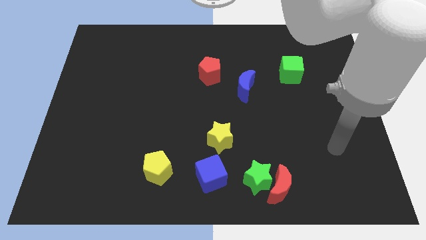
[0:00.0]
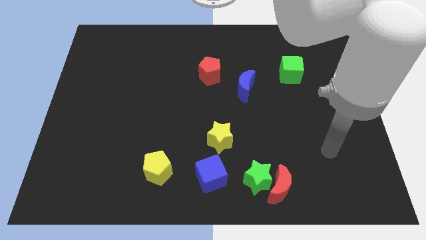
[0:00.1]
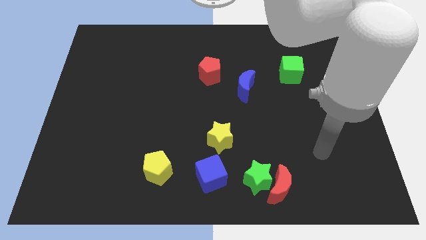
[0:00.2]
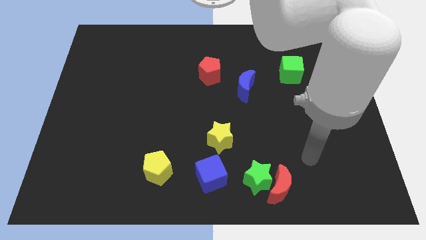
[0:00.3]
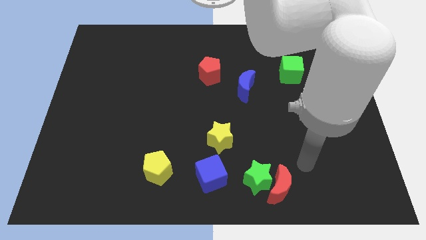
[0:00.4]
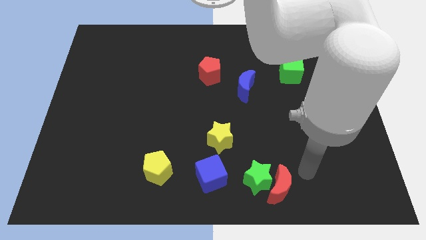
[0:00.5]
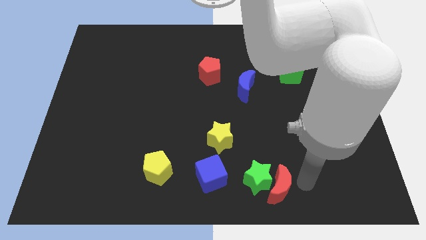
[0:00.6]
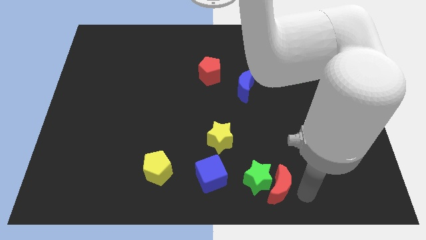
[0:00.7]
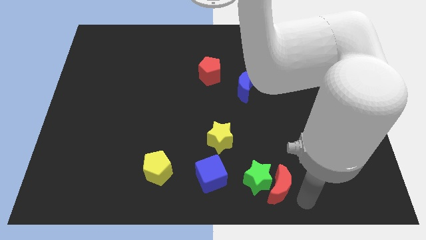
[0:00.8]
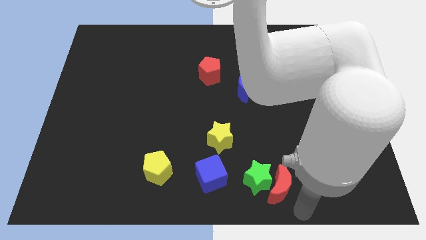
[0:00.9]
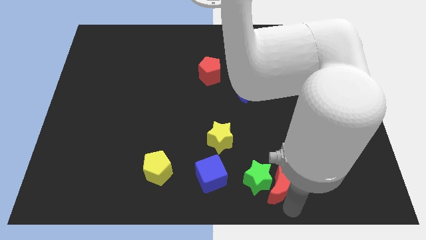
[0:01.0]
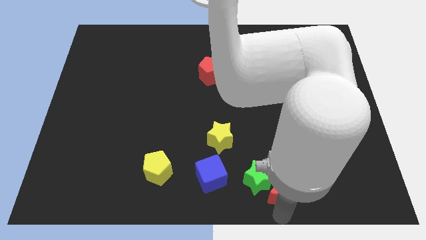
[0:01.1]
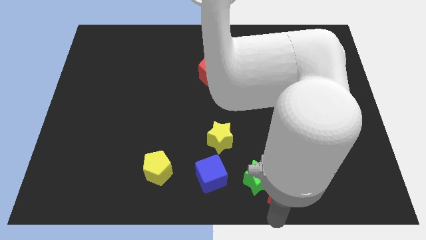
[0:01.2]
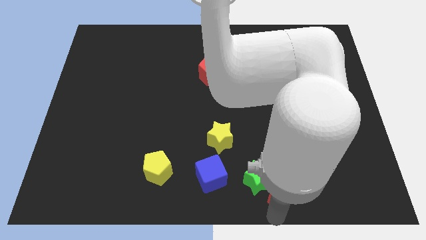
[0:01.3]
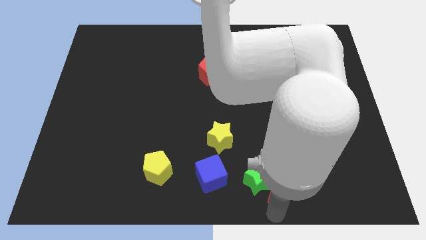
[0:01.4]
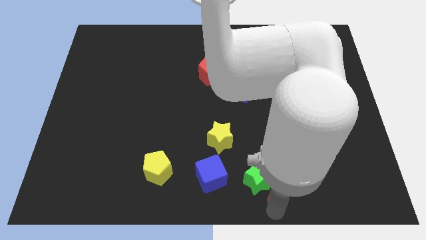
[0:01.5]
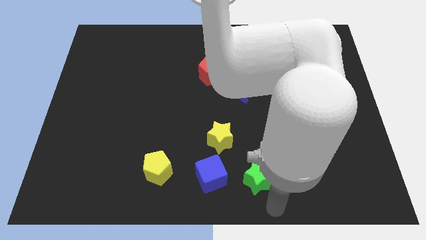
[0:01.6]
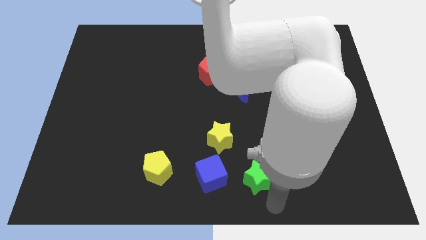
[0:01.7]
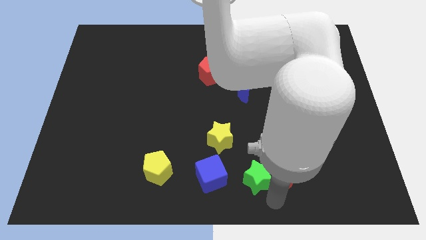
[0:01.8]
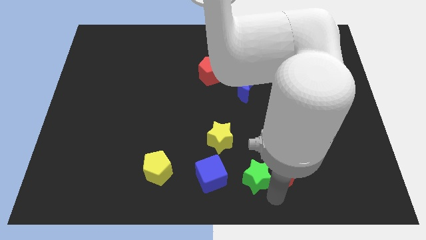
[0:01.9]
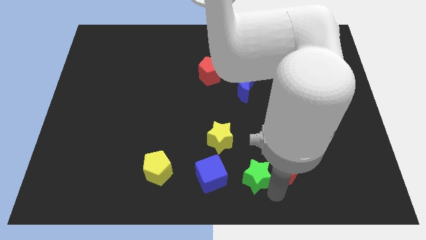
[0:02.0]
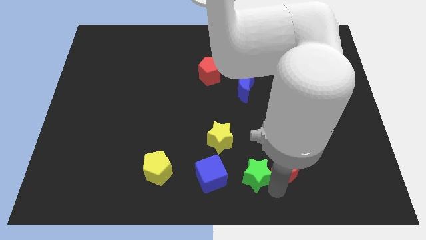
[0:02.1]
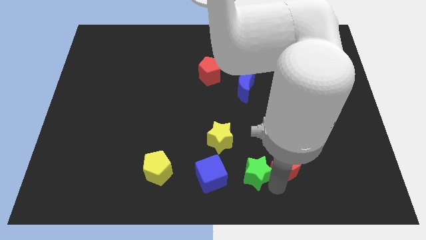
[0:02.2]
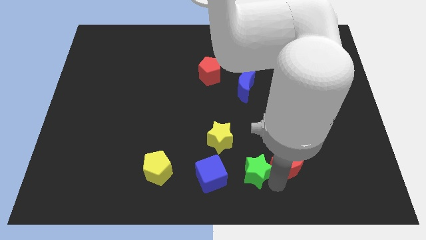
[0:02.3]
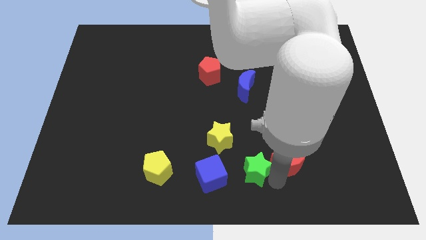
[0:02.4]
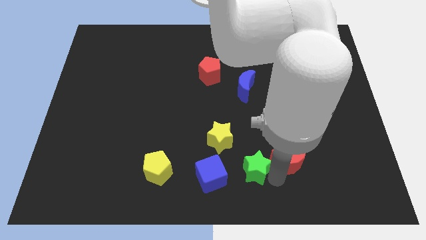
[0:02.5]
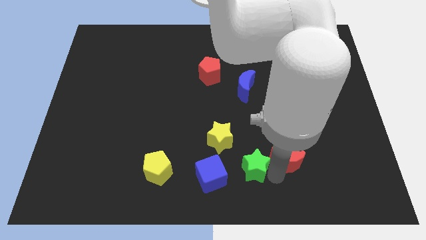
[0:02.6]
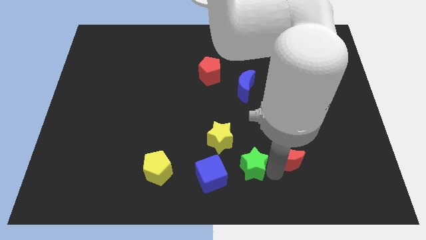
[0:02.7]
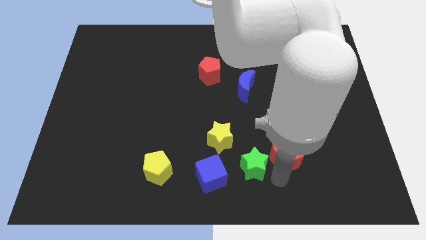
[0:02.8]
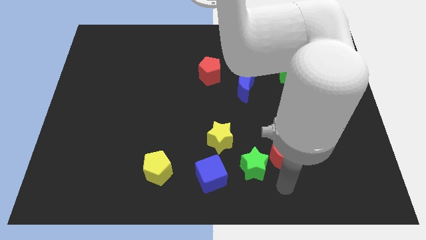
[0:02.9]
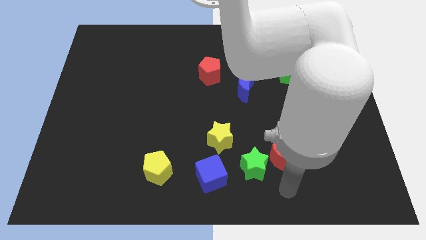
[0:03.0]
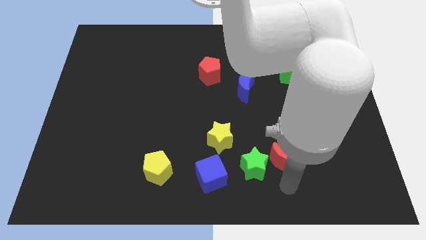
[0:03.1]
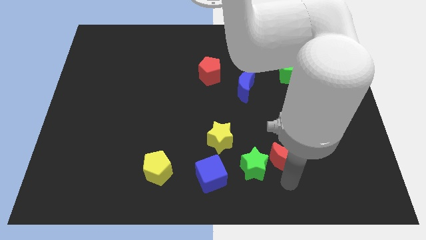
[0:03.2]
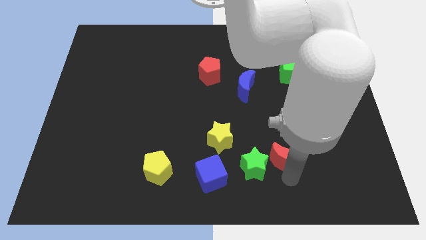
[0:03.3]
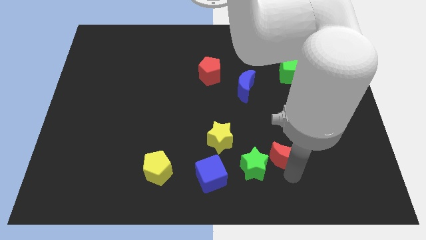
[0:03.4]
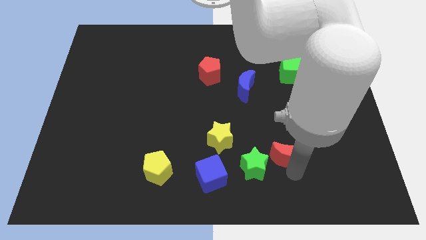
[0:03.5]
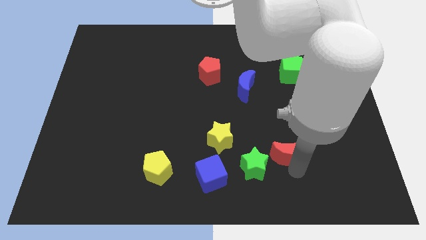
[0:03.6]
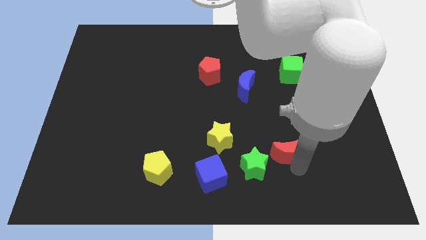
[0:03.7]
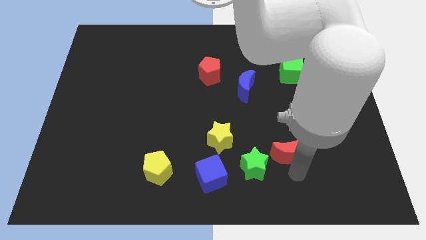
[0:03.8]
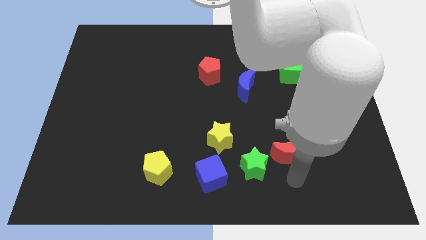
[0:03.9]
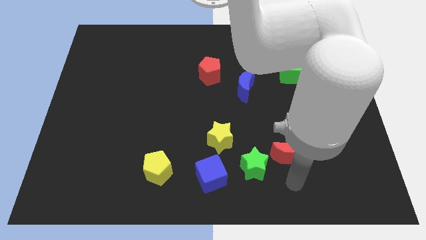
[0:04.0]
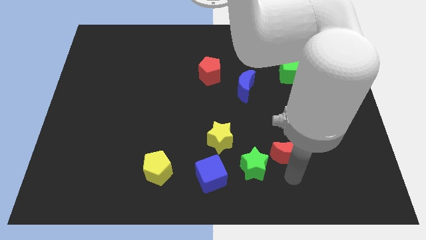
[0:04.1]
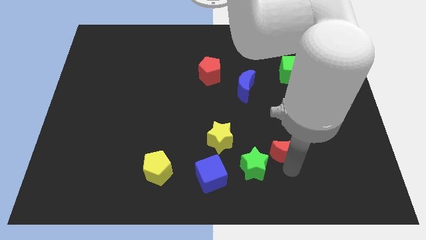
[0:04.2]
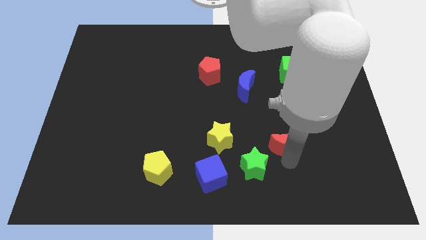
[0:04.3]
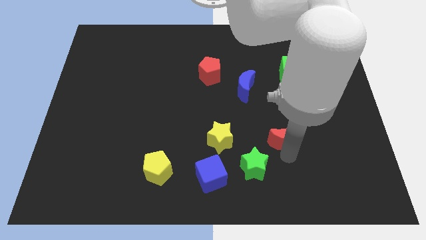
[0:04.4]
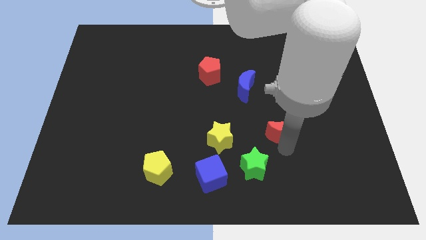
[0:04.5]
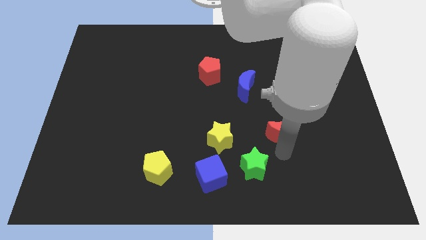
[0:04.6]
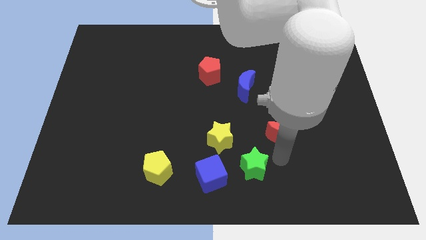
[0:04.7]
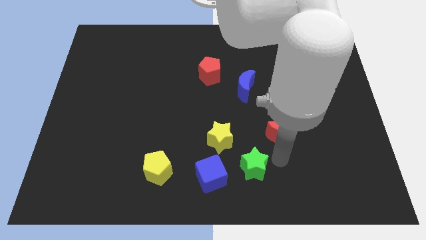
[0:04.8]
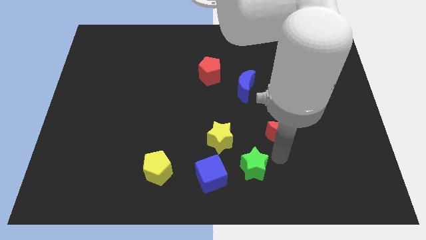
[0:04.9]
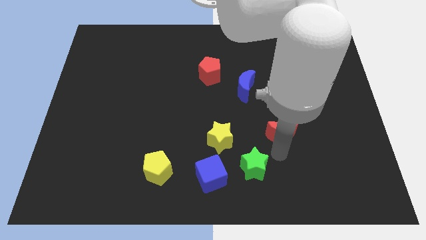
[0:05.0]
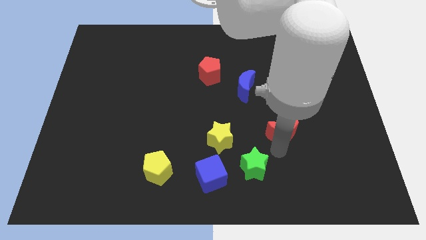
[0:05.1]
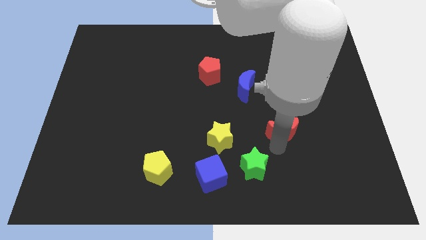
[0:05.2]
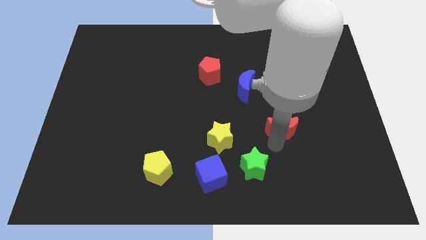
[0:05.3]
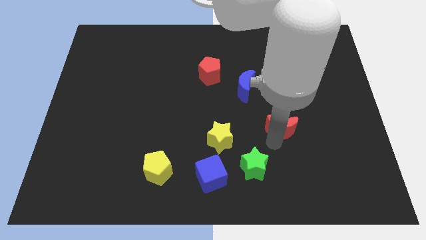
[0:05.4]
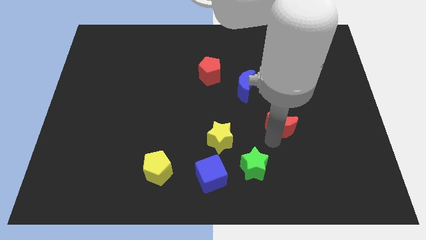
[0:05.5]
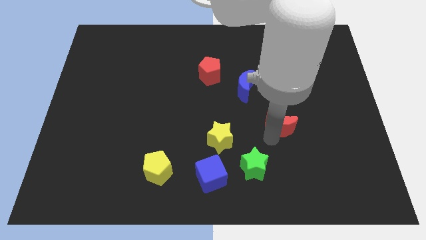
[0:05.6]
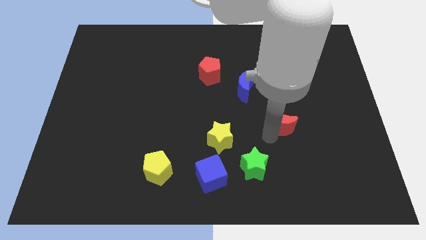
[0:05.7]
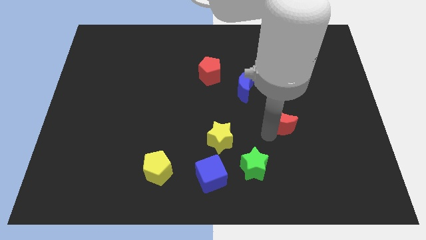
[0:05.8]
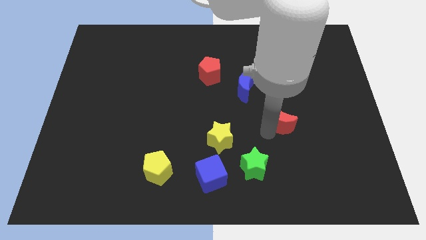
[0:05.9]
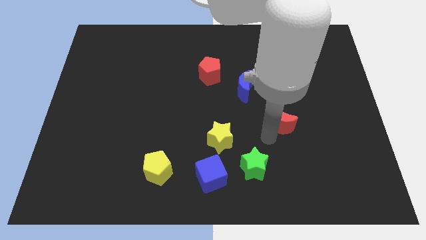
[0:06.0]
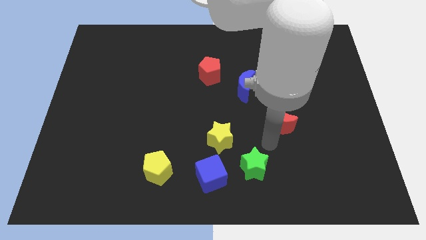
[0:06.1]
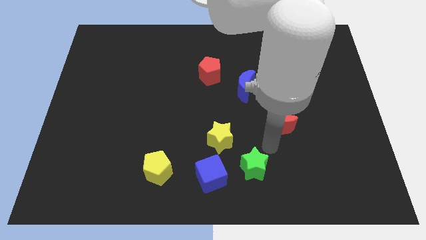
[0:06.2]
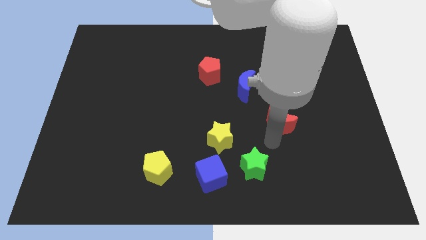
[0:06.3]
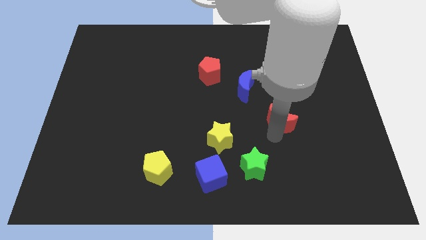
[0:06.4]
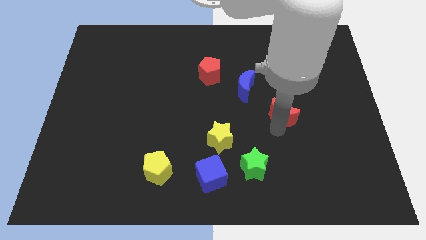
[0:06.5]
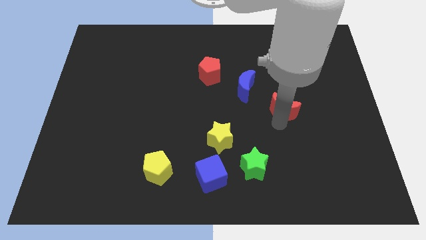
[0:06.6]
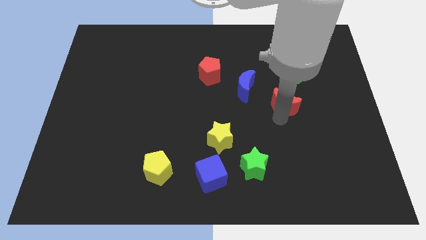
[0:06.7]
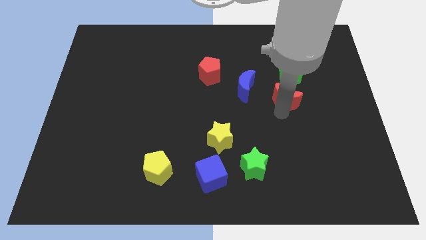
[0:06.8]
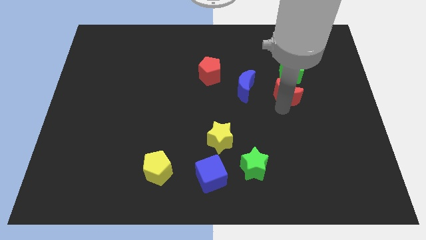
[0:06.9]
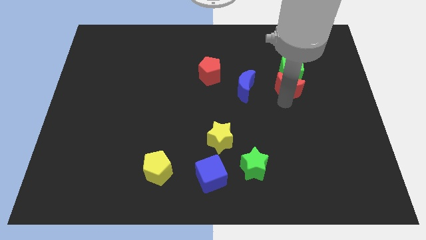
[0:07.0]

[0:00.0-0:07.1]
put the red moon towards the green cube
